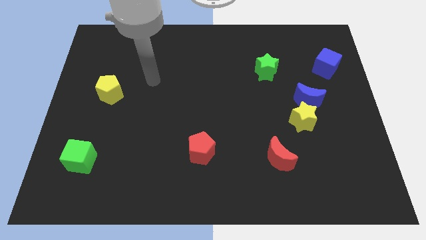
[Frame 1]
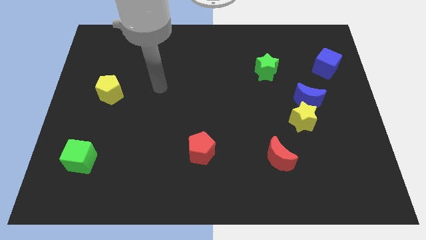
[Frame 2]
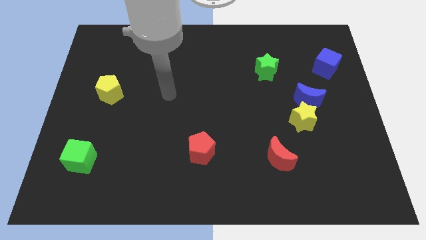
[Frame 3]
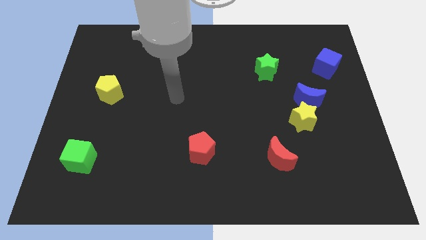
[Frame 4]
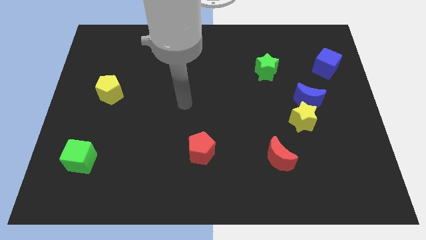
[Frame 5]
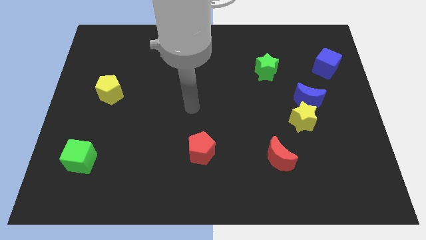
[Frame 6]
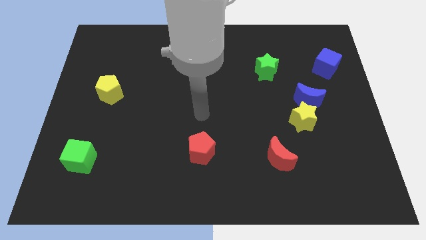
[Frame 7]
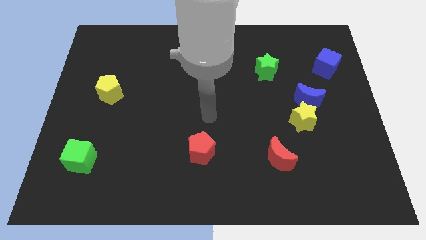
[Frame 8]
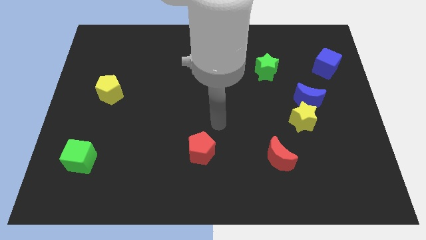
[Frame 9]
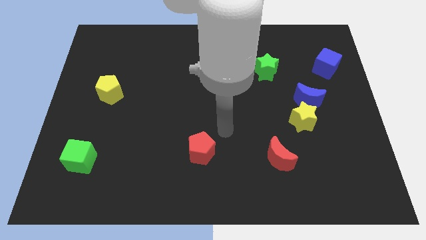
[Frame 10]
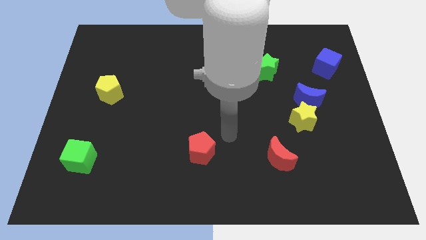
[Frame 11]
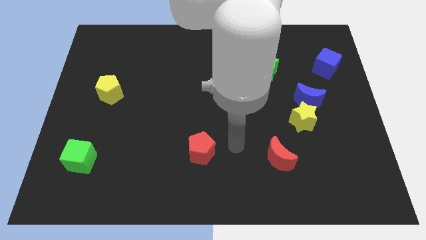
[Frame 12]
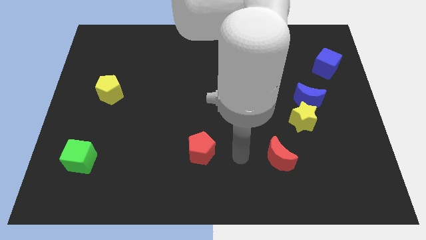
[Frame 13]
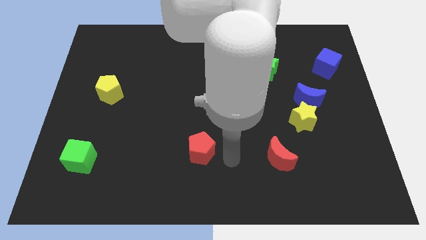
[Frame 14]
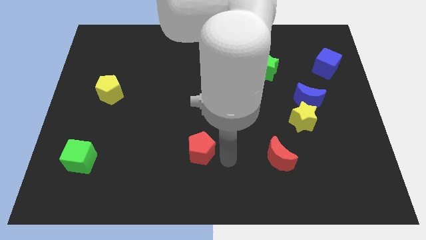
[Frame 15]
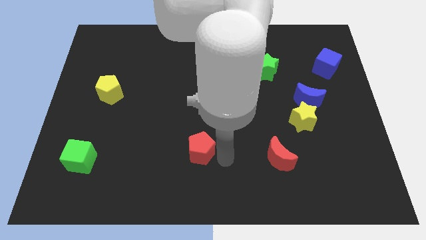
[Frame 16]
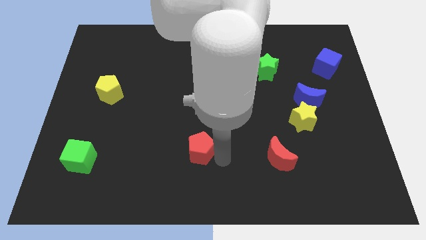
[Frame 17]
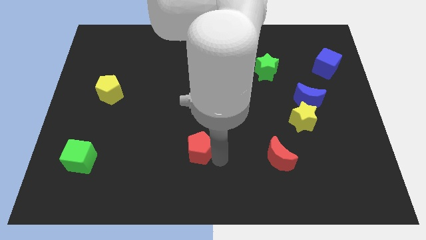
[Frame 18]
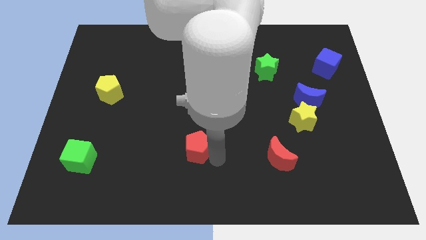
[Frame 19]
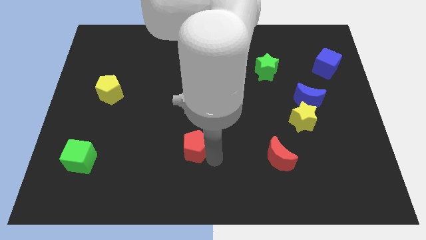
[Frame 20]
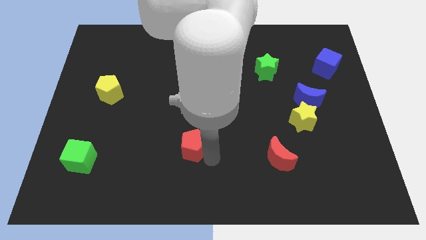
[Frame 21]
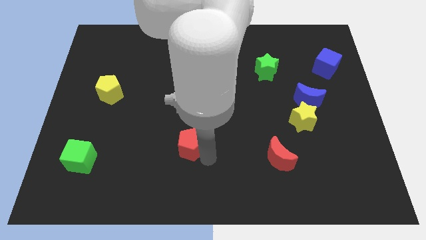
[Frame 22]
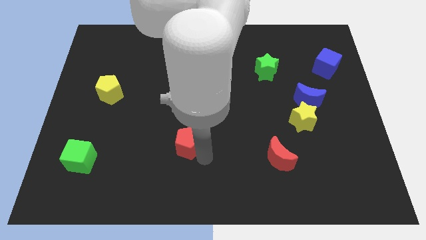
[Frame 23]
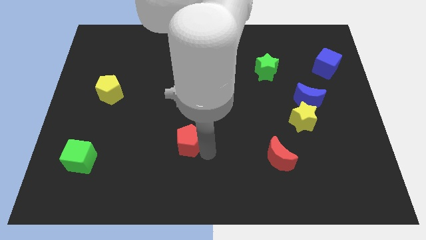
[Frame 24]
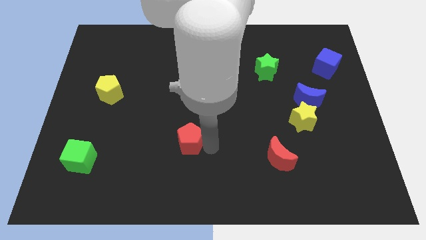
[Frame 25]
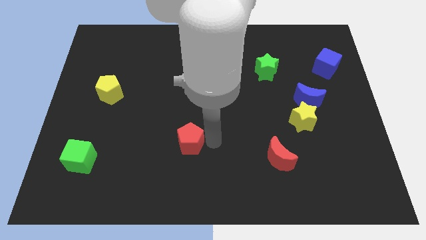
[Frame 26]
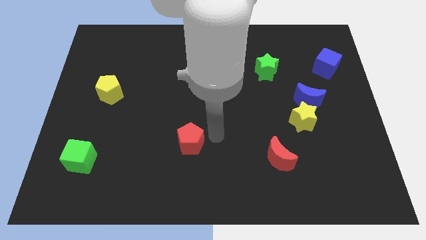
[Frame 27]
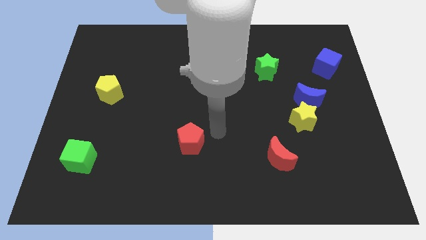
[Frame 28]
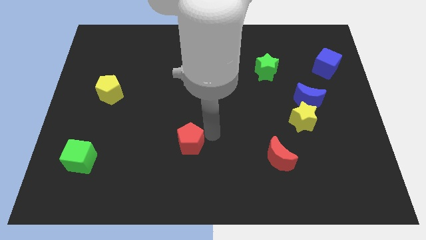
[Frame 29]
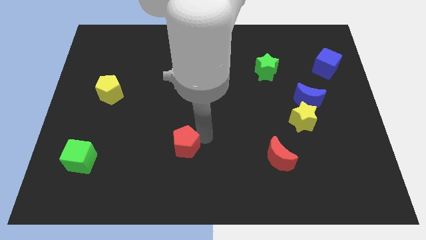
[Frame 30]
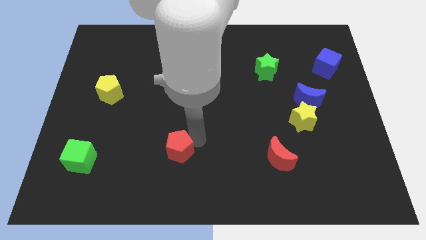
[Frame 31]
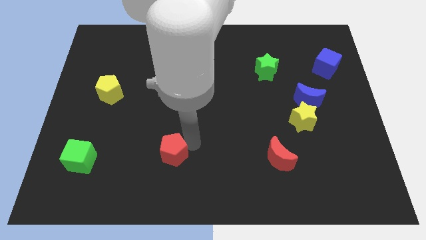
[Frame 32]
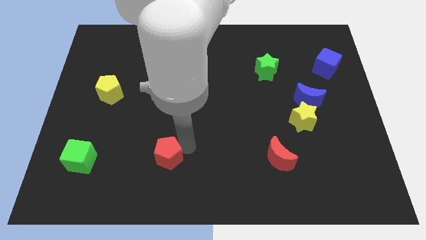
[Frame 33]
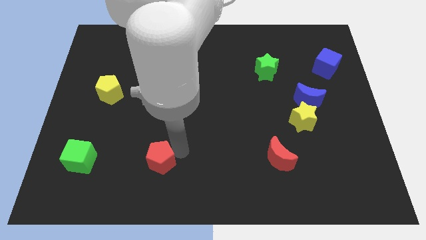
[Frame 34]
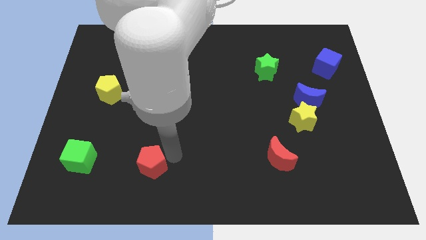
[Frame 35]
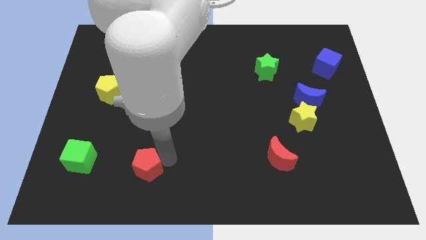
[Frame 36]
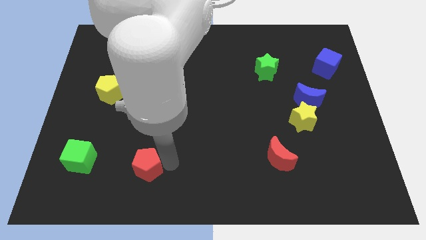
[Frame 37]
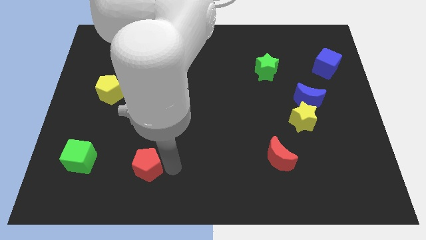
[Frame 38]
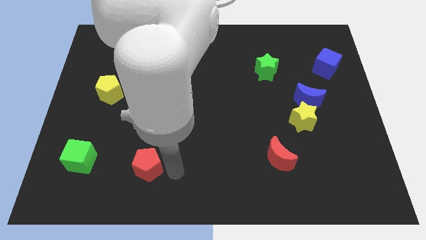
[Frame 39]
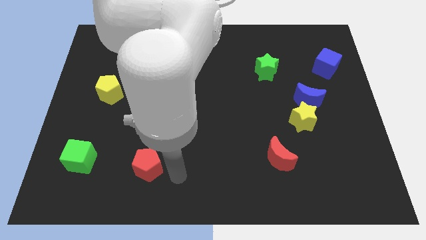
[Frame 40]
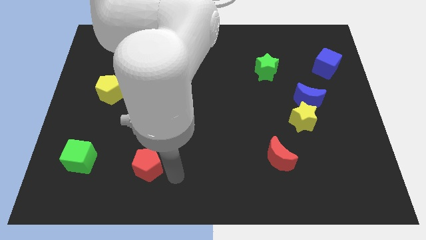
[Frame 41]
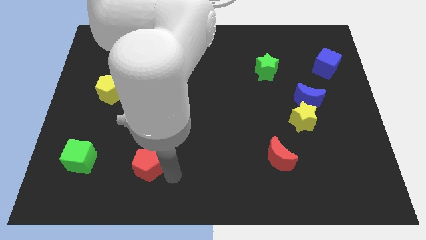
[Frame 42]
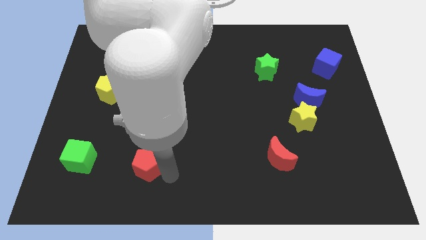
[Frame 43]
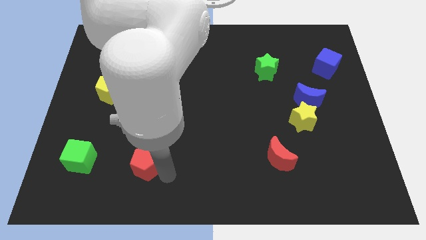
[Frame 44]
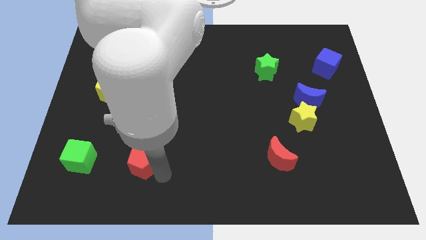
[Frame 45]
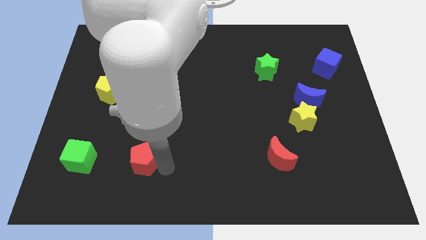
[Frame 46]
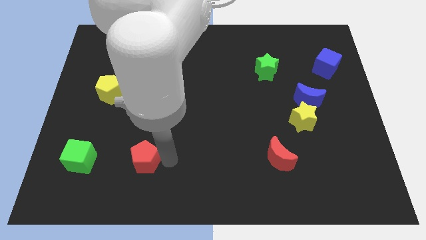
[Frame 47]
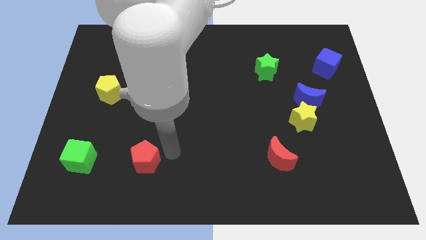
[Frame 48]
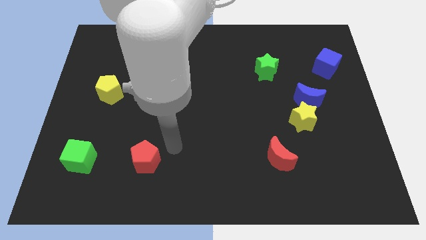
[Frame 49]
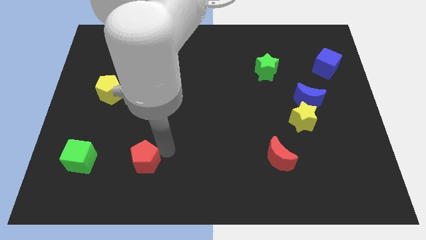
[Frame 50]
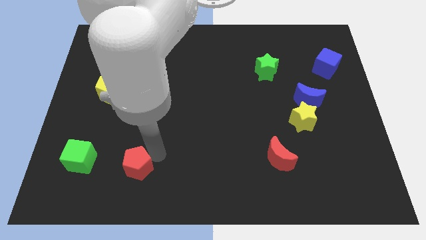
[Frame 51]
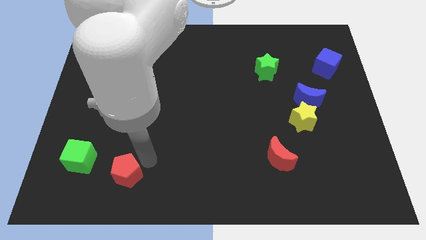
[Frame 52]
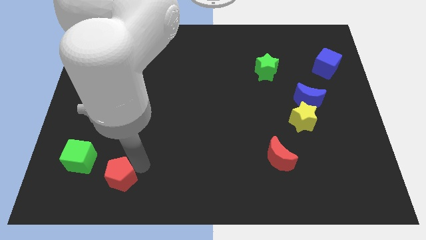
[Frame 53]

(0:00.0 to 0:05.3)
push the red pentagon to the bottom right side of the green cube

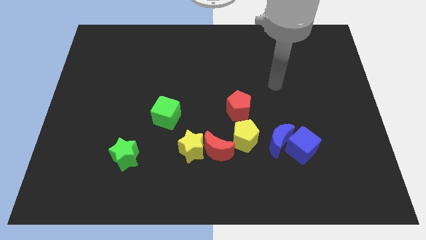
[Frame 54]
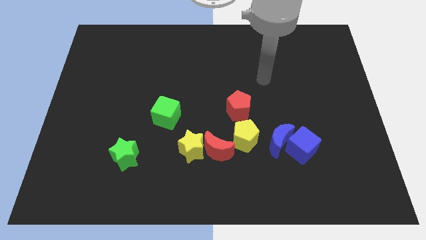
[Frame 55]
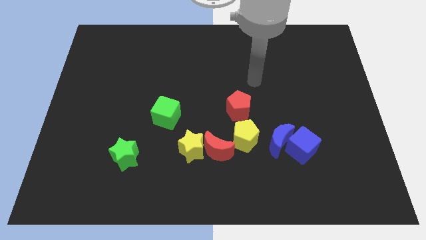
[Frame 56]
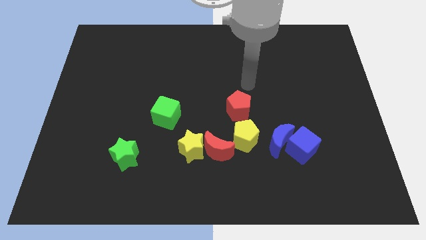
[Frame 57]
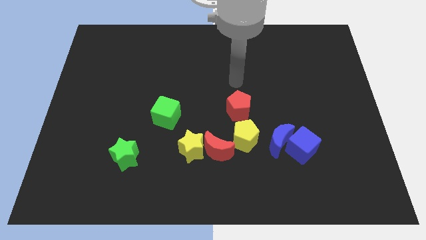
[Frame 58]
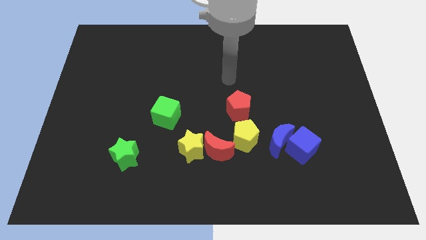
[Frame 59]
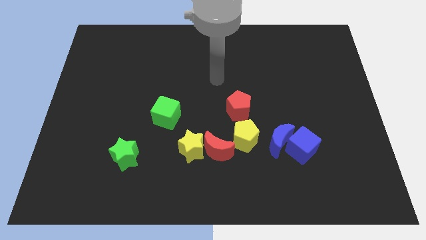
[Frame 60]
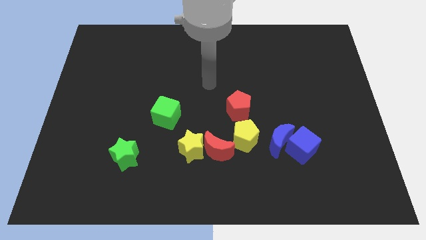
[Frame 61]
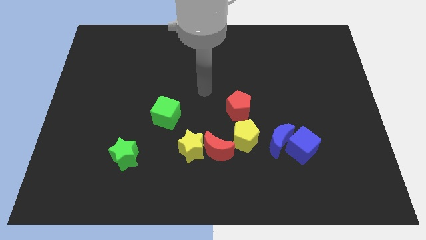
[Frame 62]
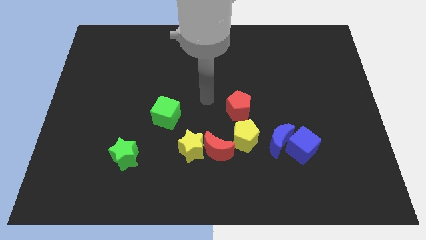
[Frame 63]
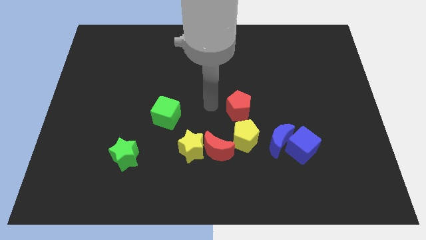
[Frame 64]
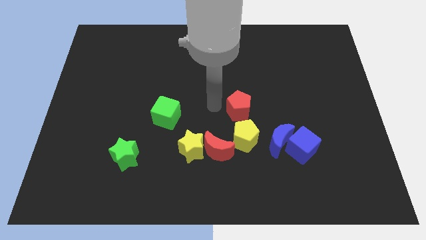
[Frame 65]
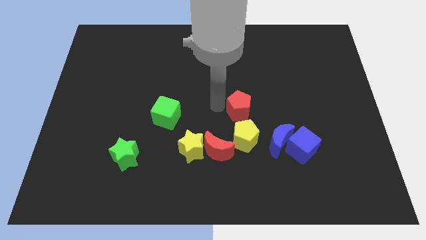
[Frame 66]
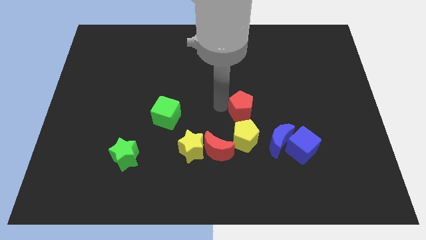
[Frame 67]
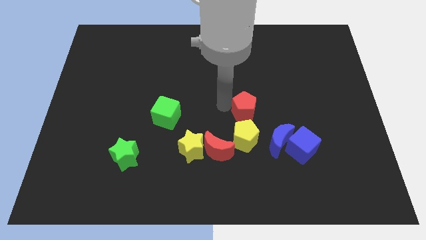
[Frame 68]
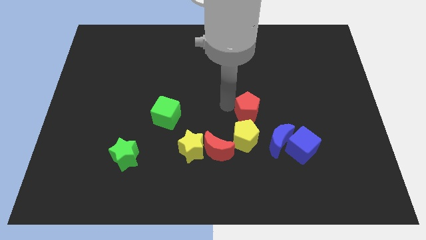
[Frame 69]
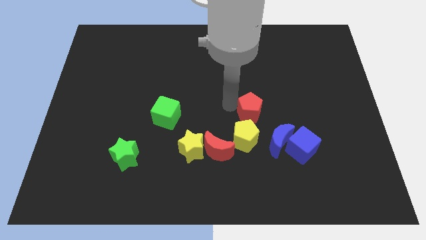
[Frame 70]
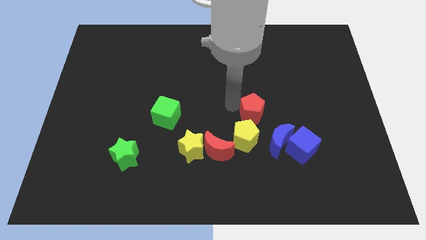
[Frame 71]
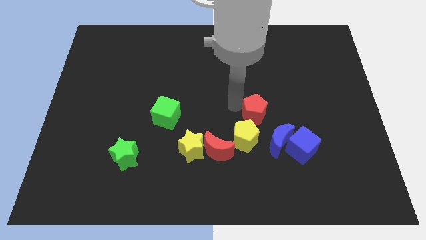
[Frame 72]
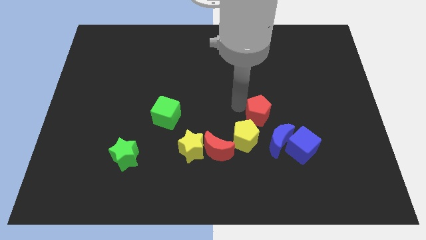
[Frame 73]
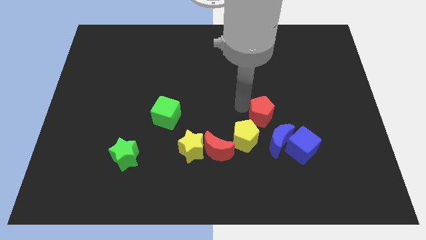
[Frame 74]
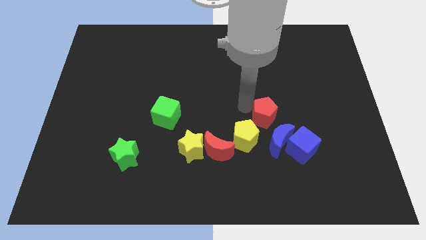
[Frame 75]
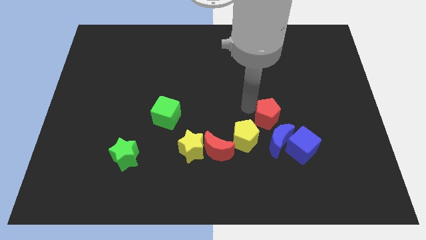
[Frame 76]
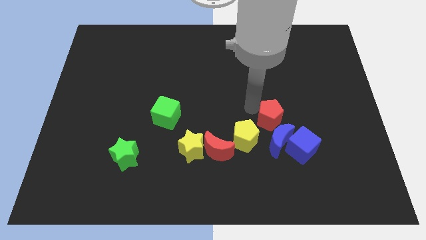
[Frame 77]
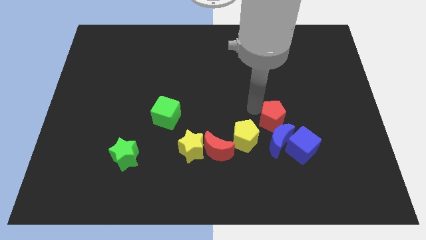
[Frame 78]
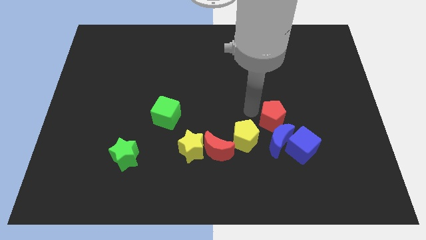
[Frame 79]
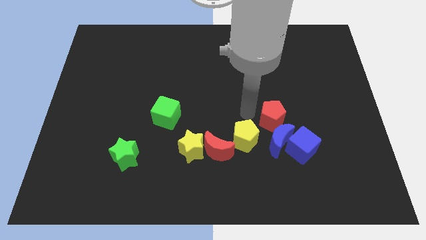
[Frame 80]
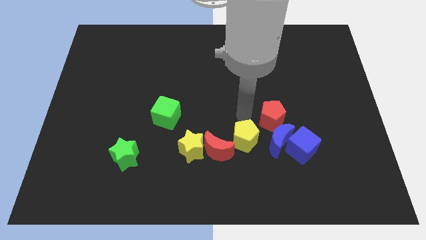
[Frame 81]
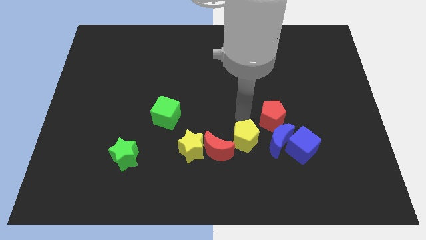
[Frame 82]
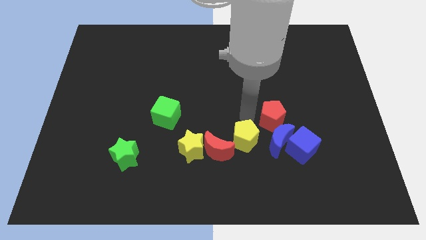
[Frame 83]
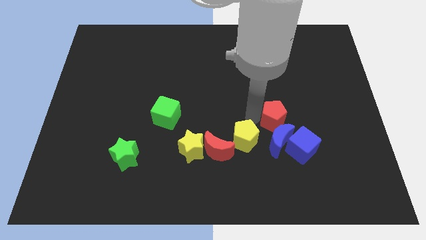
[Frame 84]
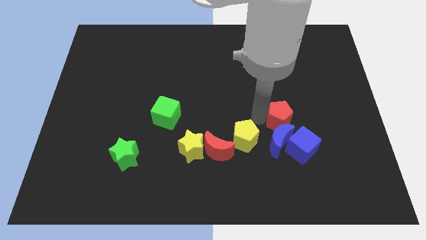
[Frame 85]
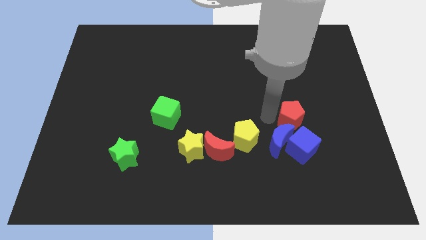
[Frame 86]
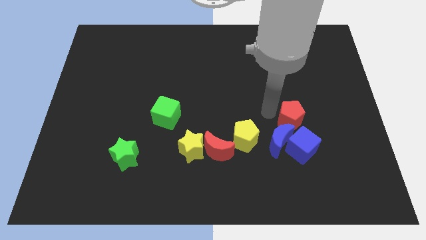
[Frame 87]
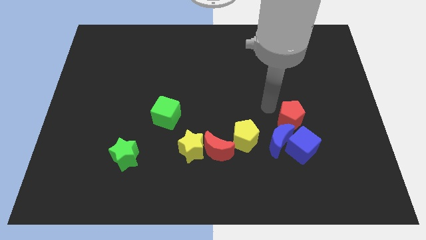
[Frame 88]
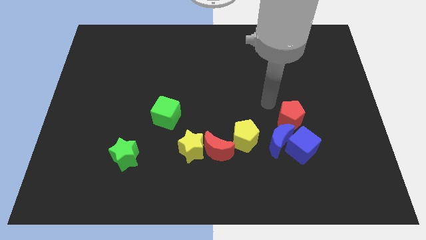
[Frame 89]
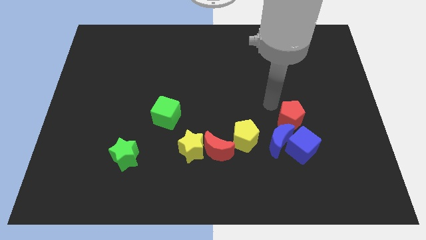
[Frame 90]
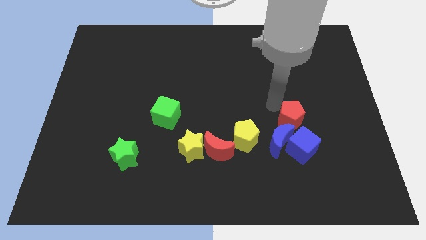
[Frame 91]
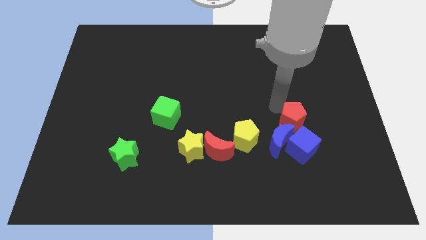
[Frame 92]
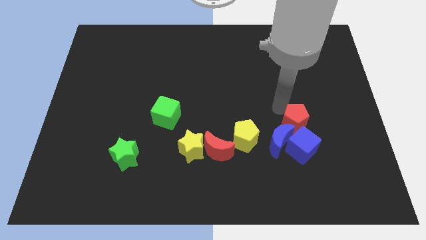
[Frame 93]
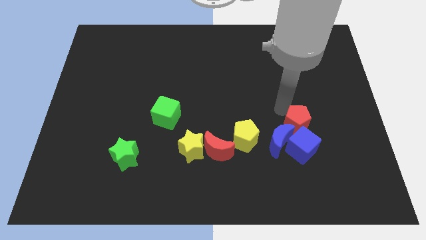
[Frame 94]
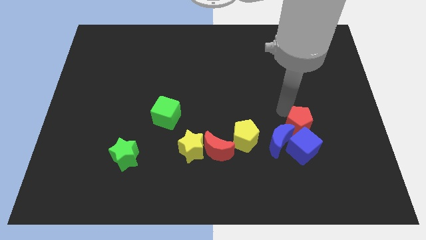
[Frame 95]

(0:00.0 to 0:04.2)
slide the red pentagon right of the blue moon
